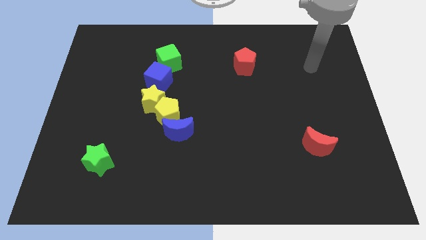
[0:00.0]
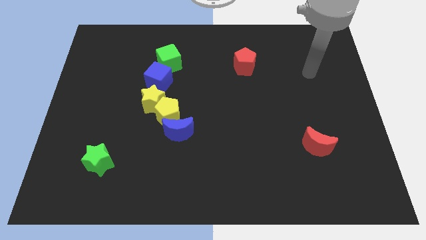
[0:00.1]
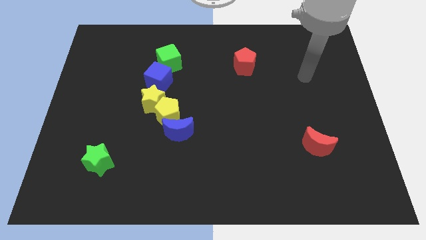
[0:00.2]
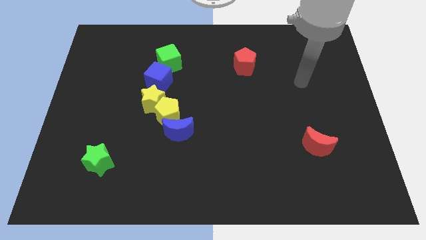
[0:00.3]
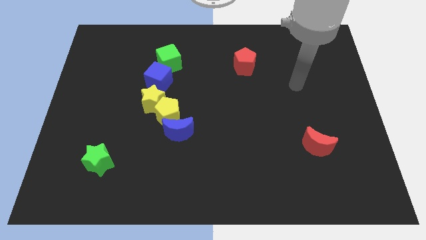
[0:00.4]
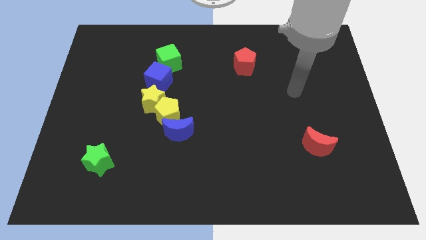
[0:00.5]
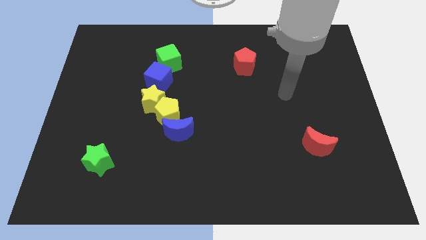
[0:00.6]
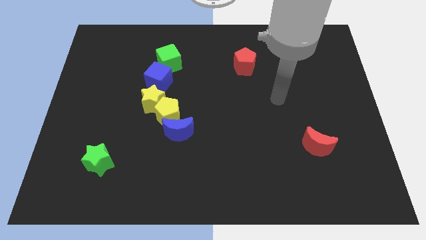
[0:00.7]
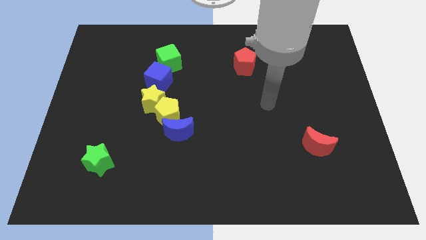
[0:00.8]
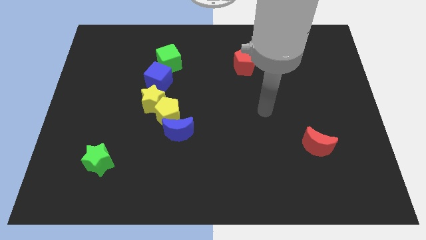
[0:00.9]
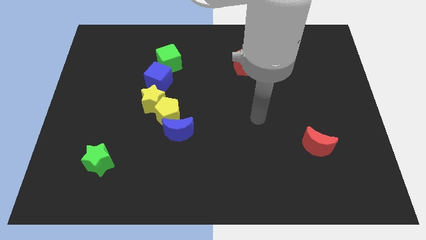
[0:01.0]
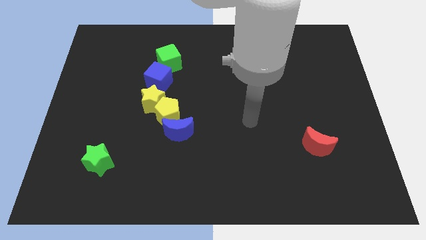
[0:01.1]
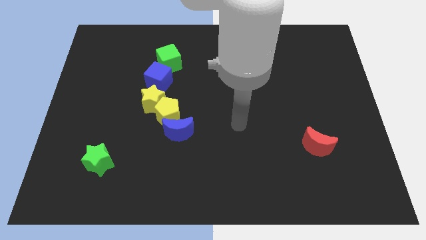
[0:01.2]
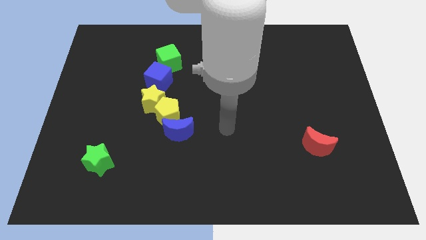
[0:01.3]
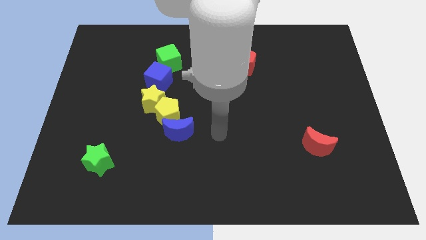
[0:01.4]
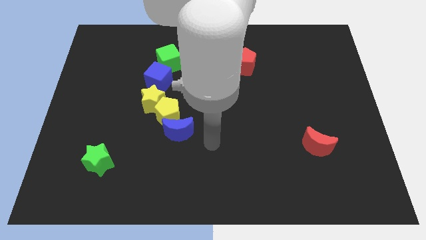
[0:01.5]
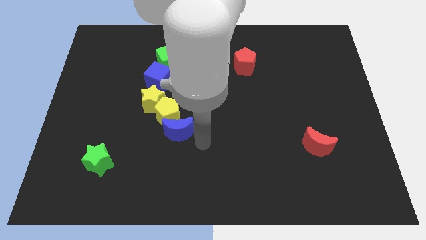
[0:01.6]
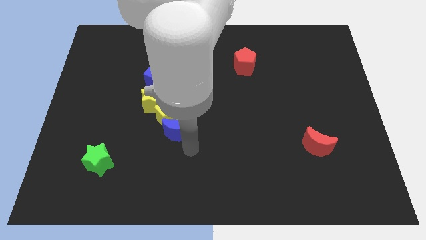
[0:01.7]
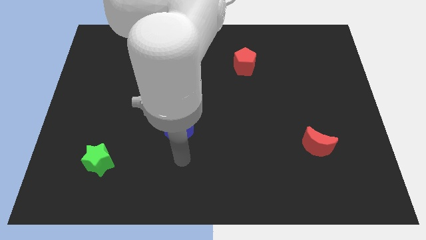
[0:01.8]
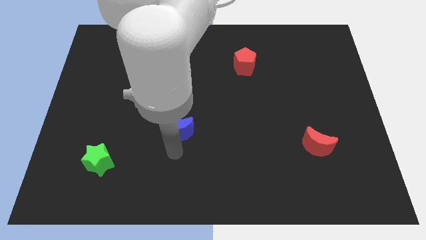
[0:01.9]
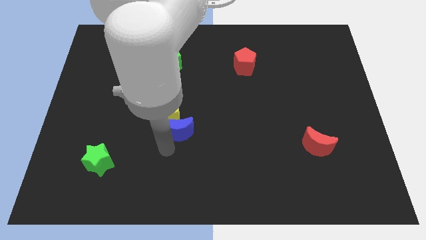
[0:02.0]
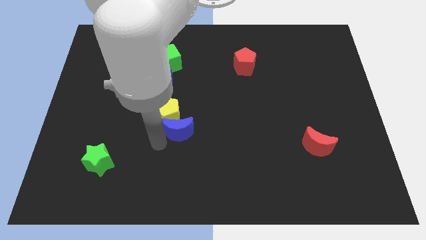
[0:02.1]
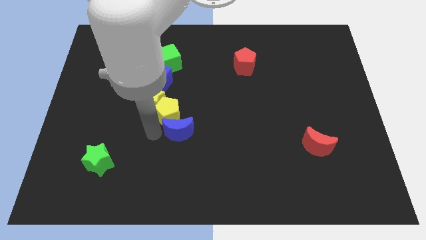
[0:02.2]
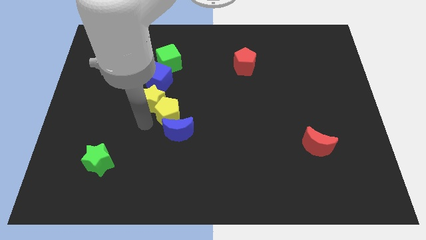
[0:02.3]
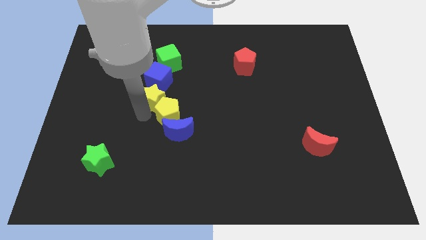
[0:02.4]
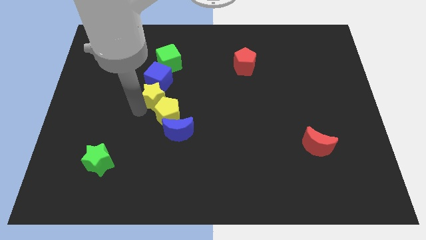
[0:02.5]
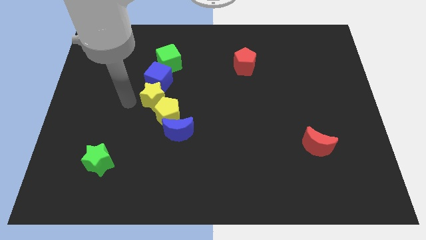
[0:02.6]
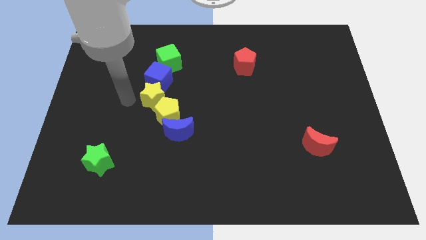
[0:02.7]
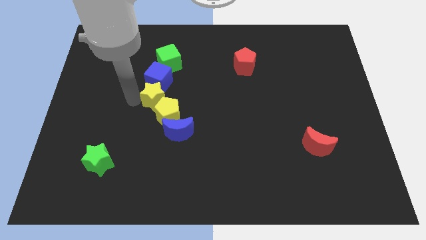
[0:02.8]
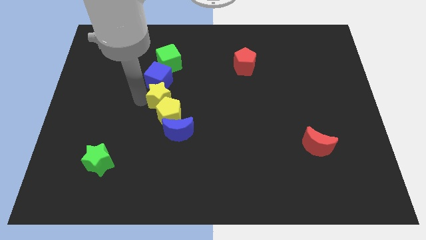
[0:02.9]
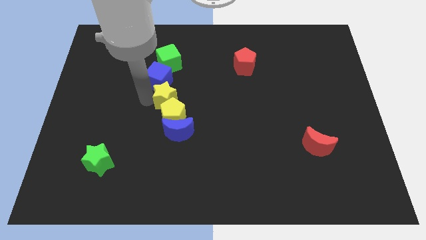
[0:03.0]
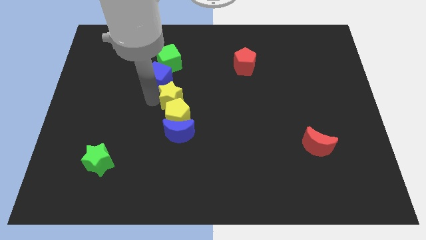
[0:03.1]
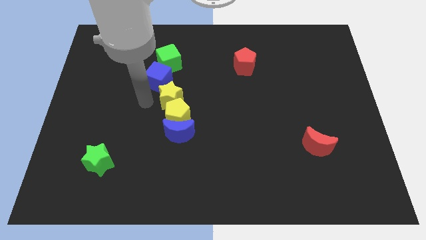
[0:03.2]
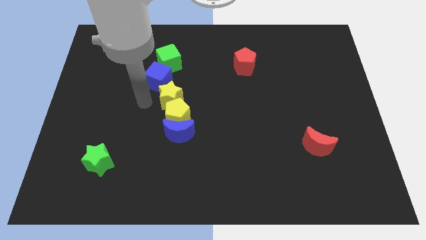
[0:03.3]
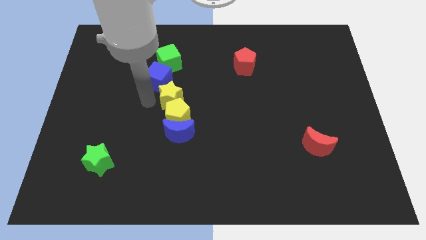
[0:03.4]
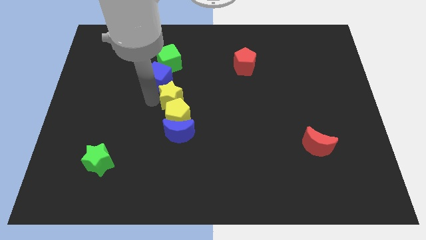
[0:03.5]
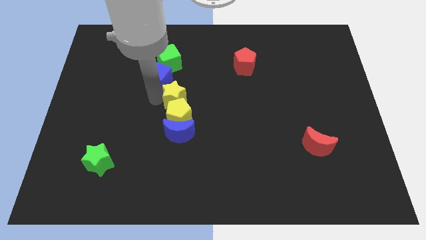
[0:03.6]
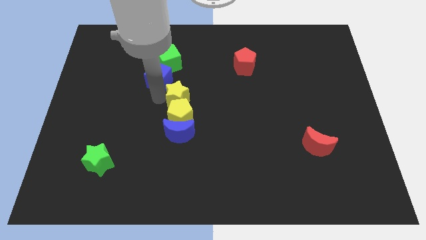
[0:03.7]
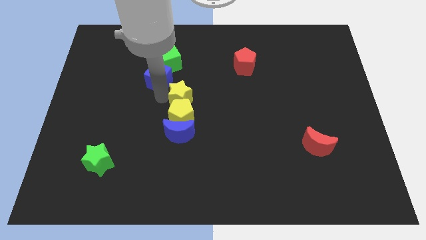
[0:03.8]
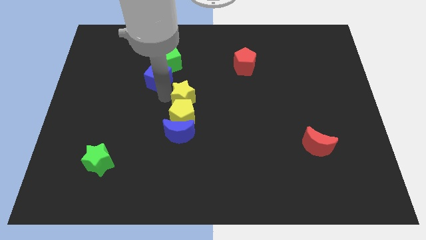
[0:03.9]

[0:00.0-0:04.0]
slide the yellow star right a little bit

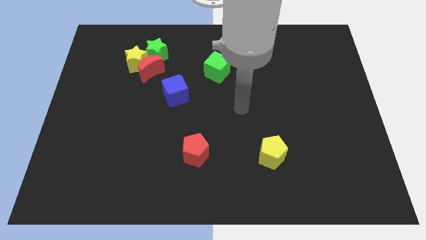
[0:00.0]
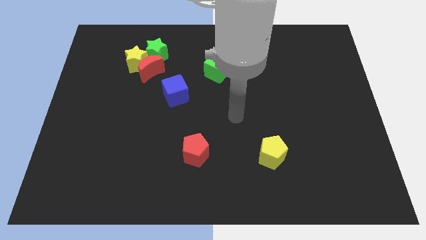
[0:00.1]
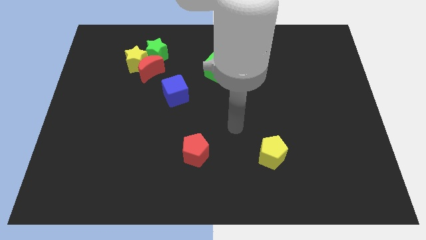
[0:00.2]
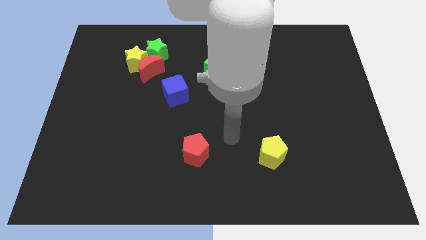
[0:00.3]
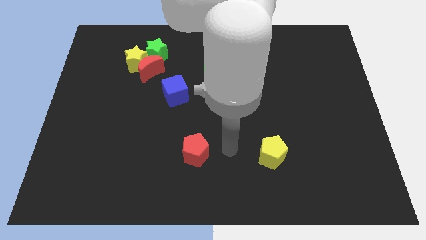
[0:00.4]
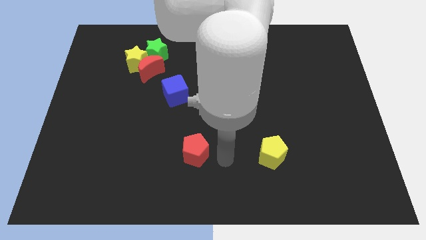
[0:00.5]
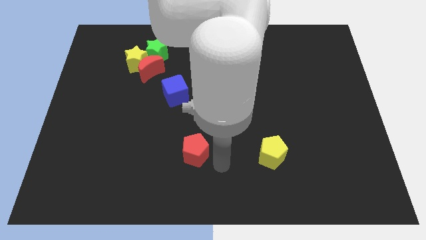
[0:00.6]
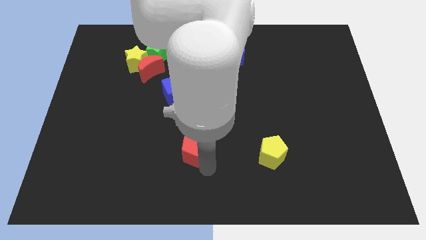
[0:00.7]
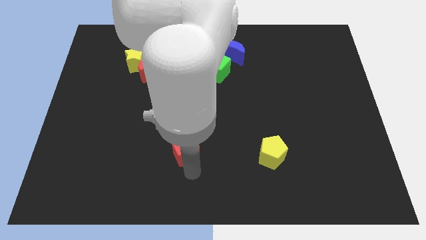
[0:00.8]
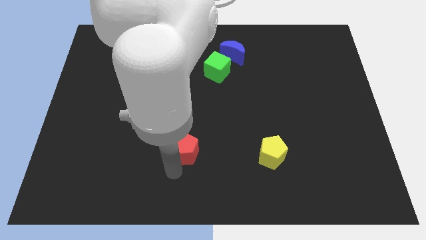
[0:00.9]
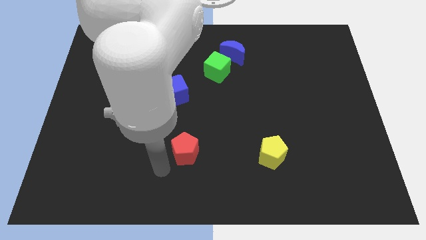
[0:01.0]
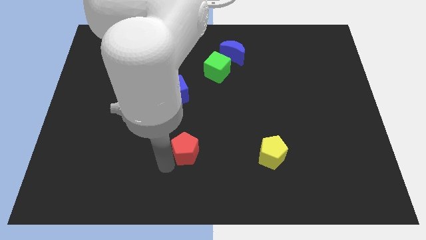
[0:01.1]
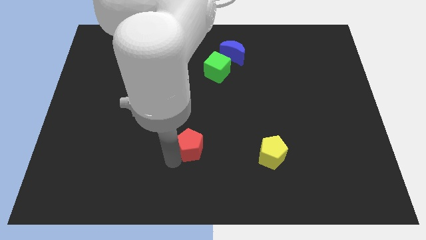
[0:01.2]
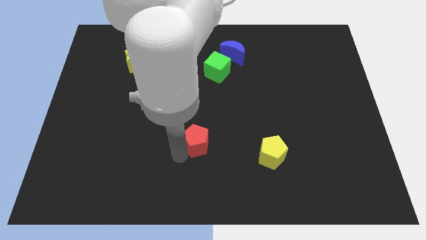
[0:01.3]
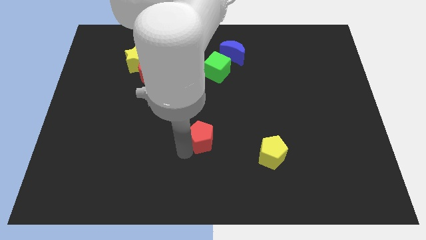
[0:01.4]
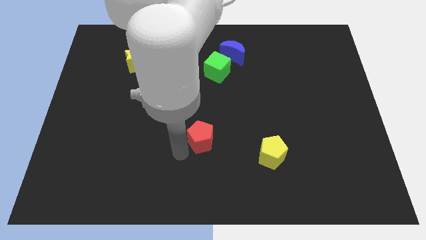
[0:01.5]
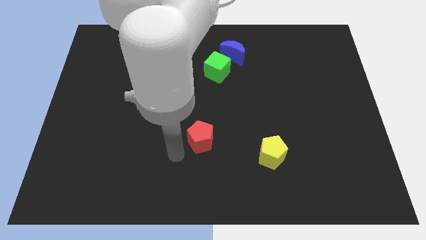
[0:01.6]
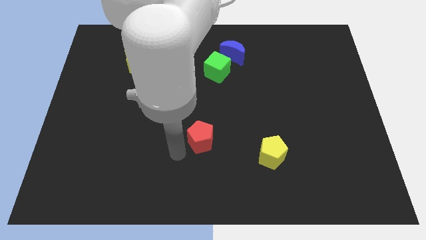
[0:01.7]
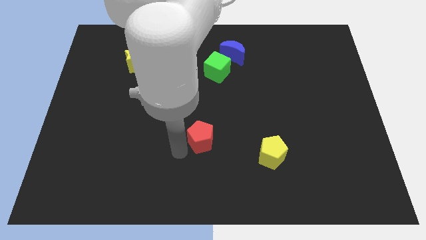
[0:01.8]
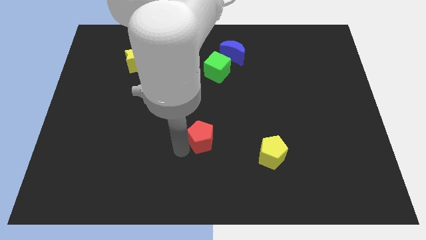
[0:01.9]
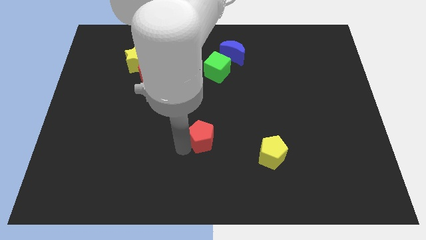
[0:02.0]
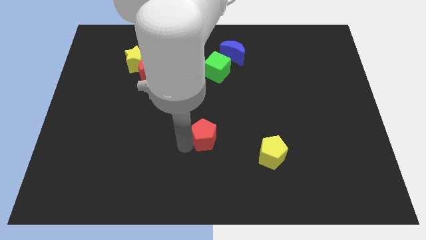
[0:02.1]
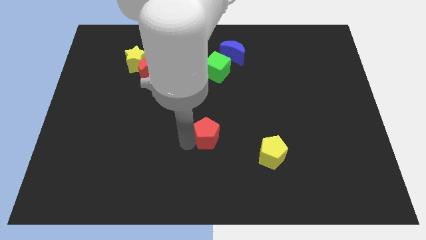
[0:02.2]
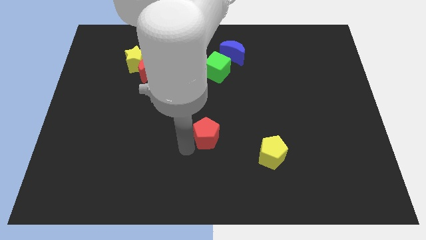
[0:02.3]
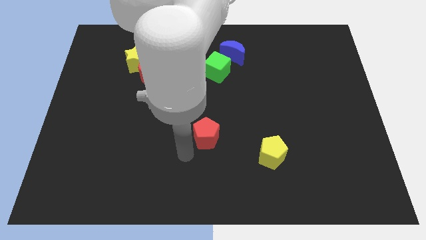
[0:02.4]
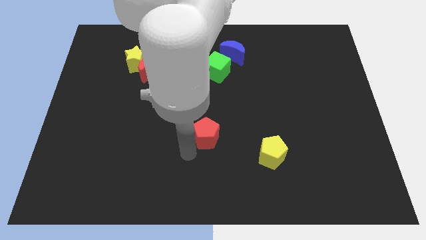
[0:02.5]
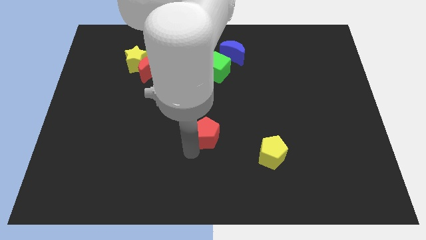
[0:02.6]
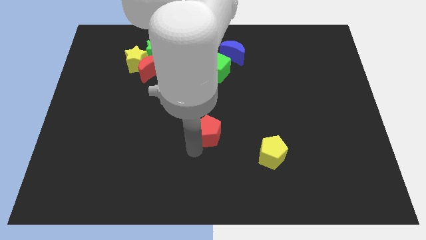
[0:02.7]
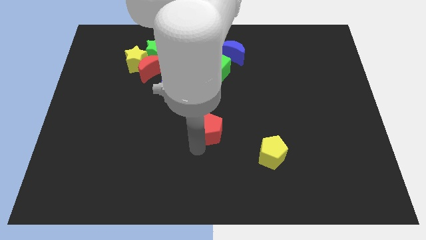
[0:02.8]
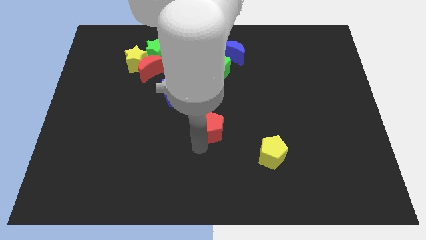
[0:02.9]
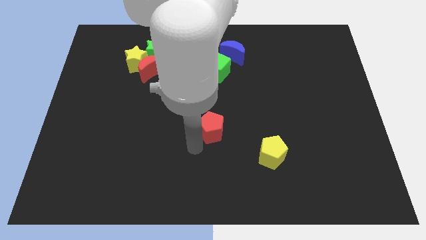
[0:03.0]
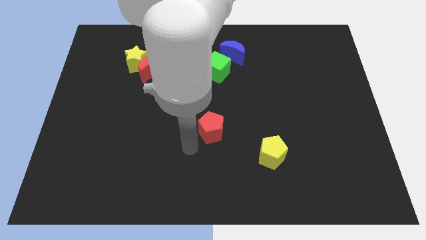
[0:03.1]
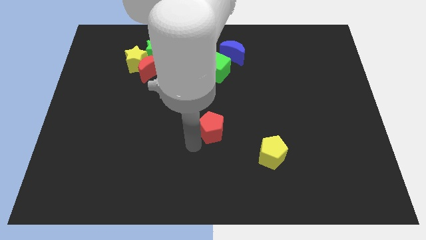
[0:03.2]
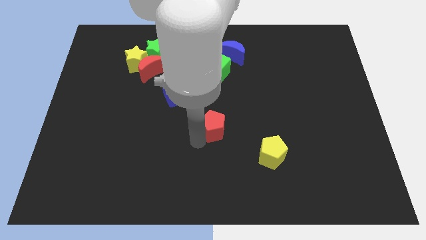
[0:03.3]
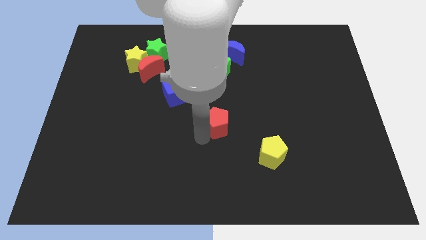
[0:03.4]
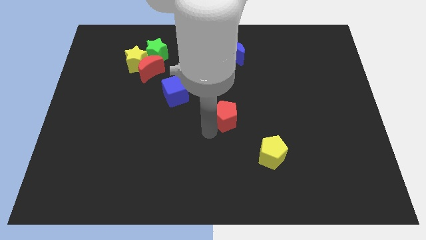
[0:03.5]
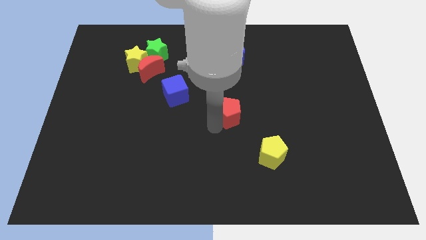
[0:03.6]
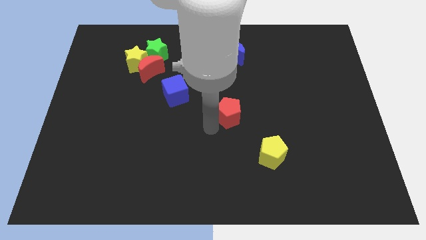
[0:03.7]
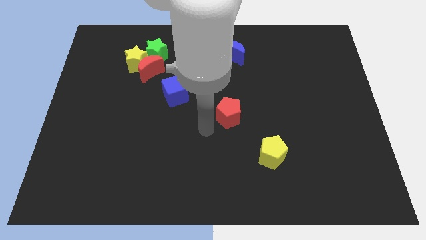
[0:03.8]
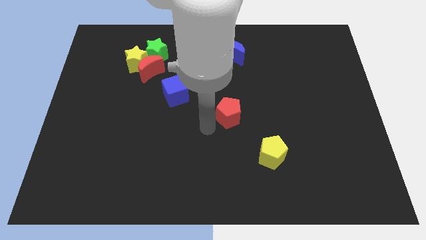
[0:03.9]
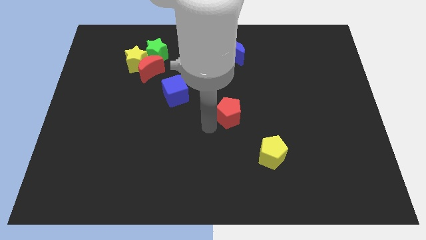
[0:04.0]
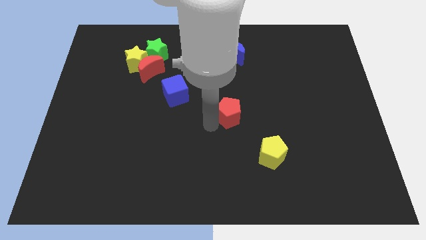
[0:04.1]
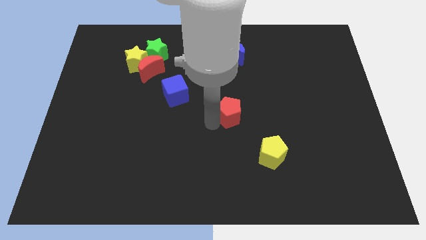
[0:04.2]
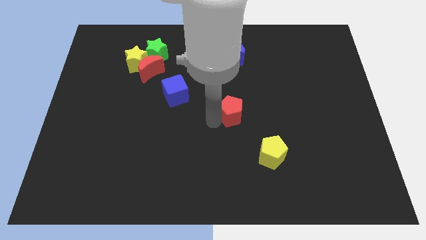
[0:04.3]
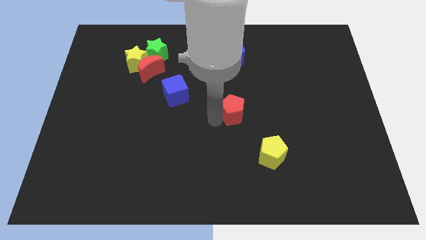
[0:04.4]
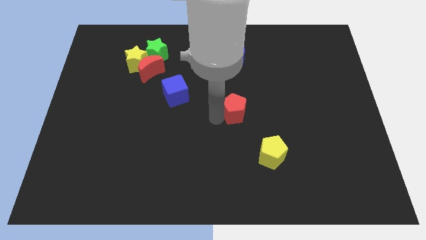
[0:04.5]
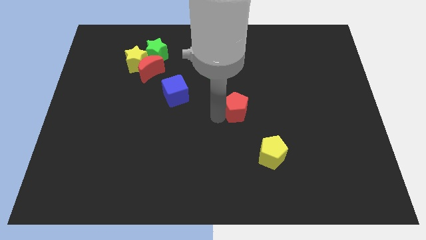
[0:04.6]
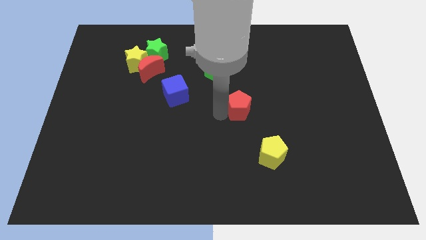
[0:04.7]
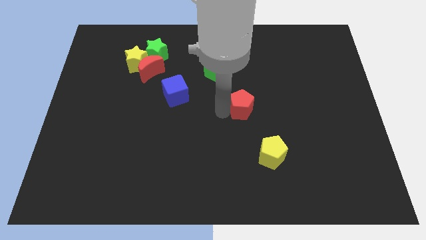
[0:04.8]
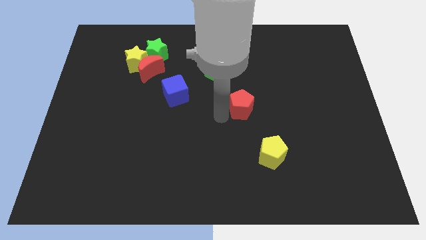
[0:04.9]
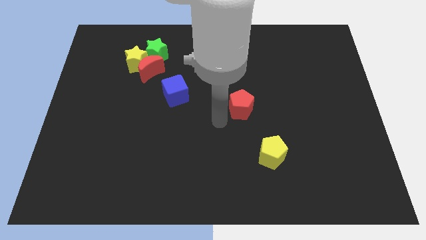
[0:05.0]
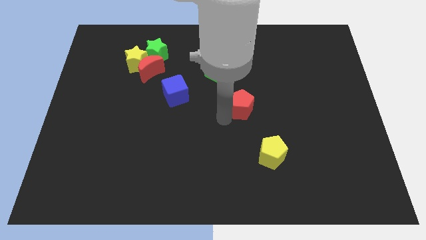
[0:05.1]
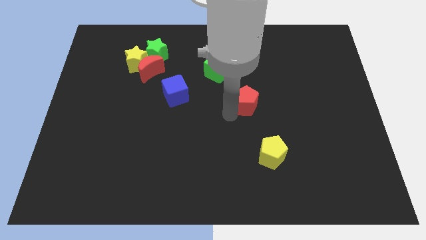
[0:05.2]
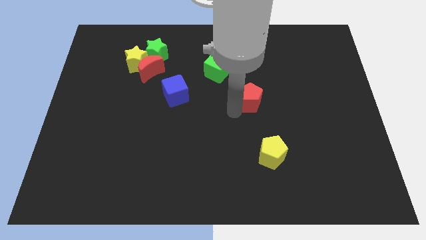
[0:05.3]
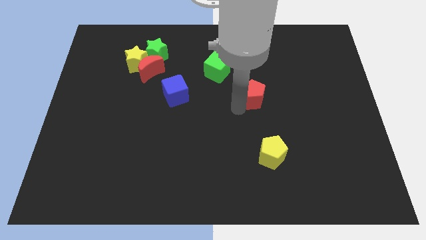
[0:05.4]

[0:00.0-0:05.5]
move the red pentagon up and right
